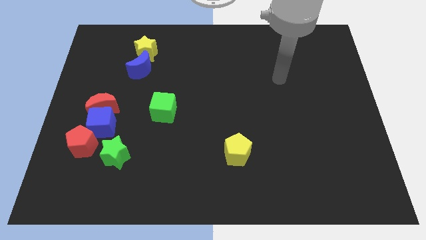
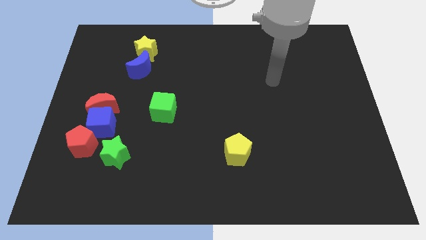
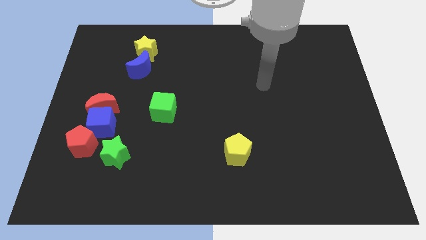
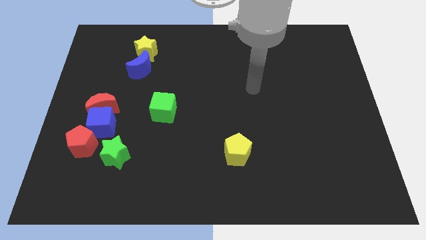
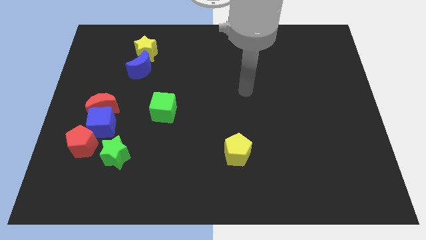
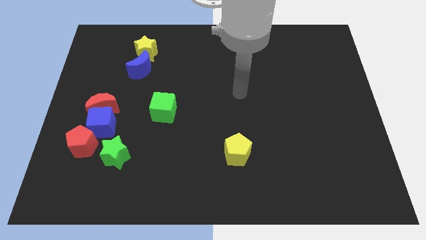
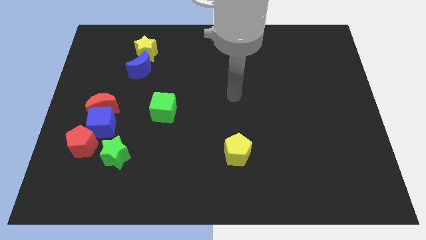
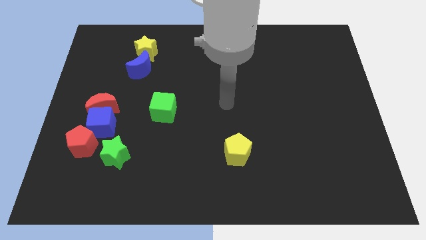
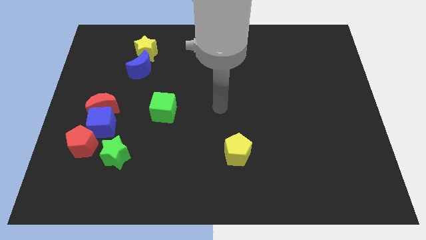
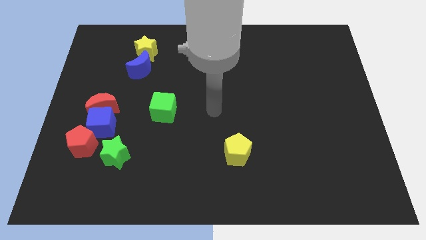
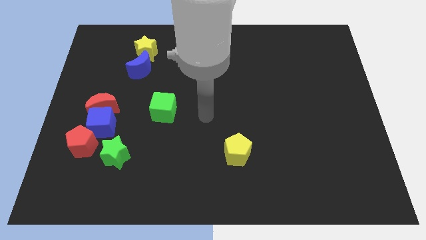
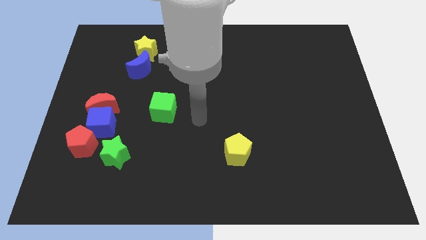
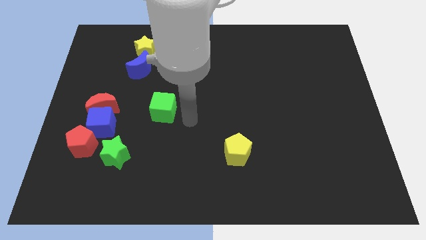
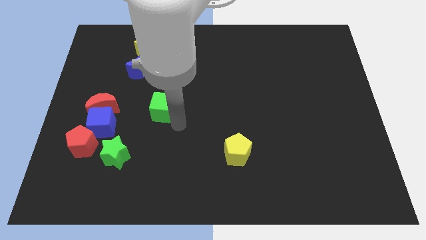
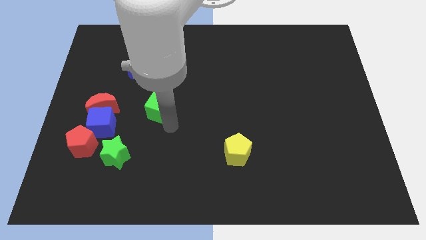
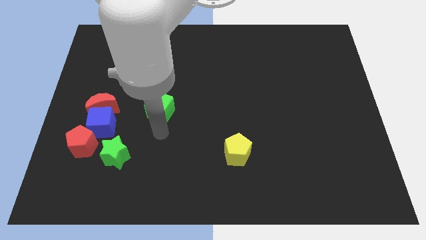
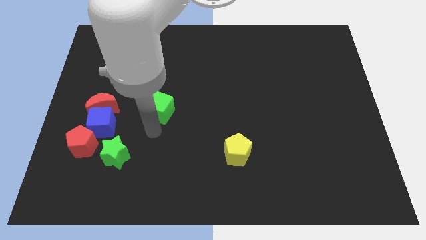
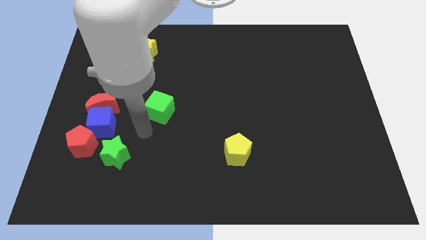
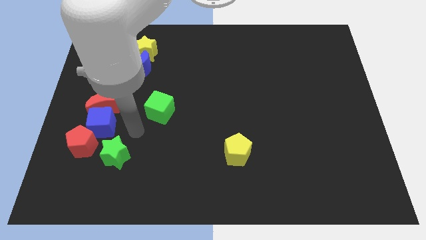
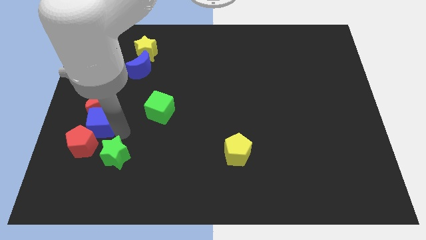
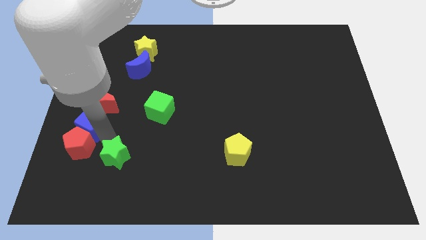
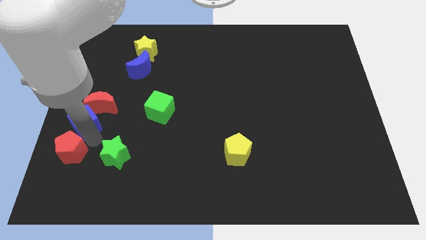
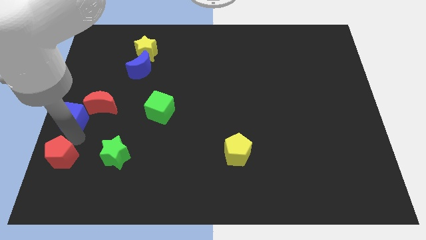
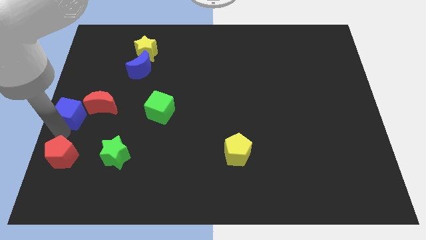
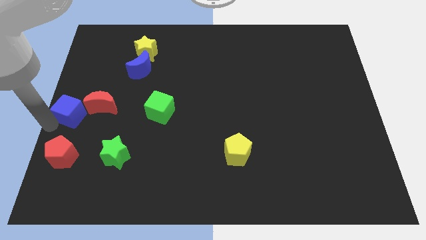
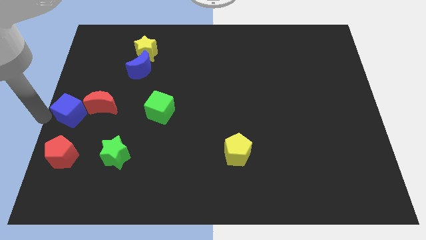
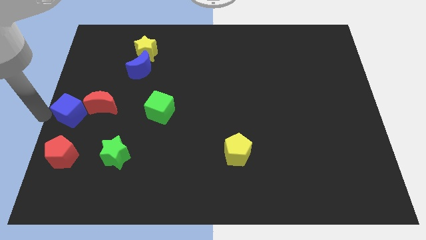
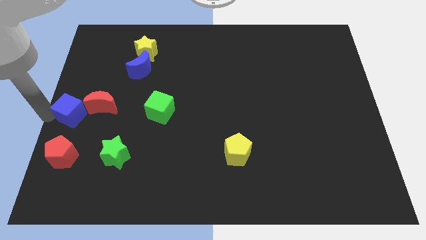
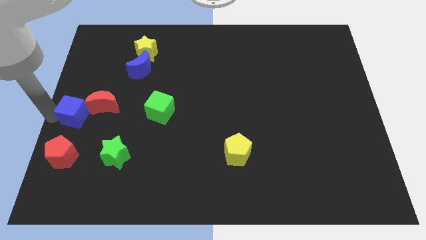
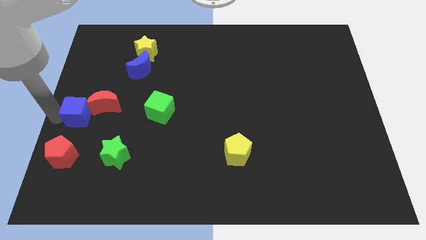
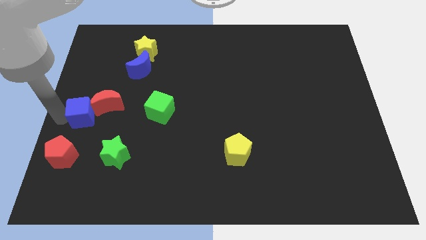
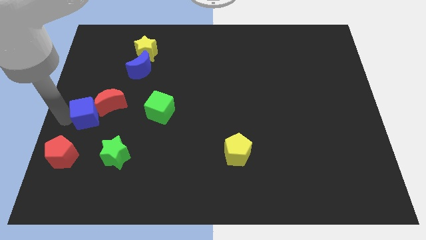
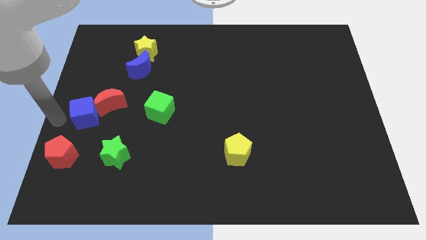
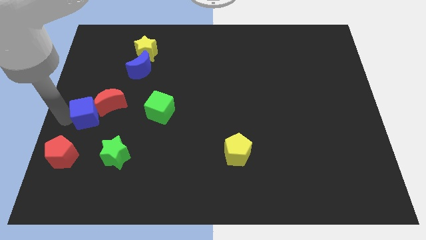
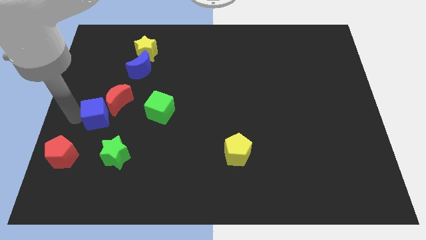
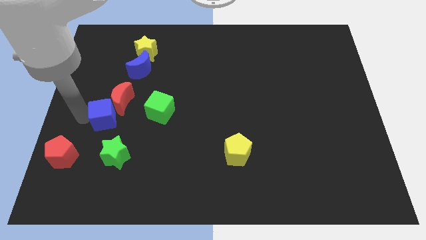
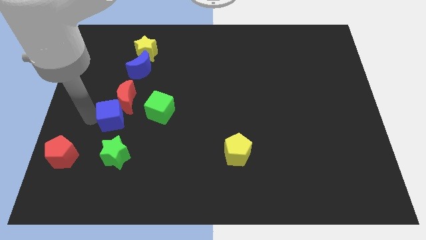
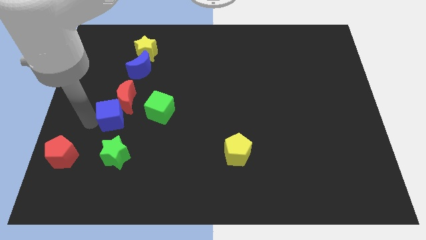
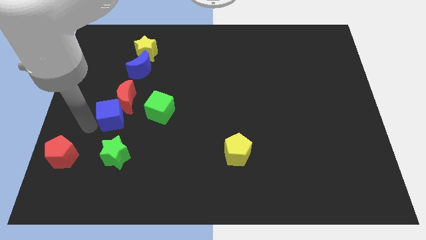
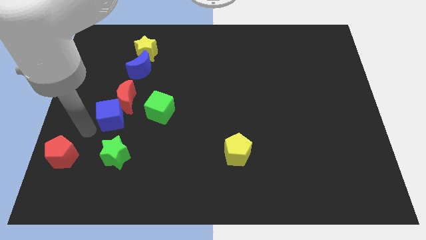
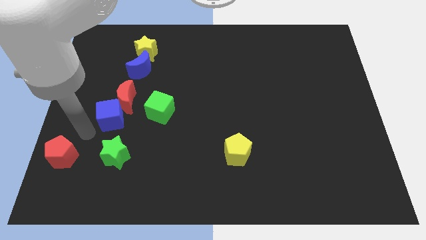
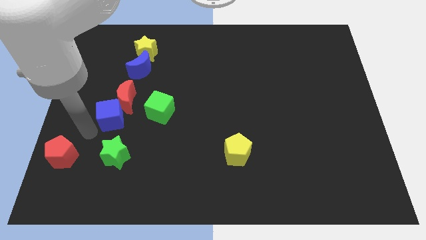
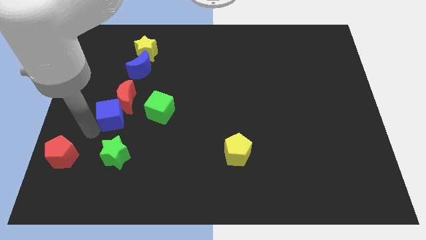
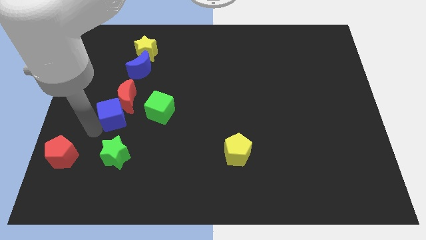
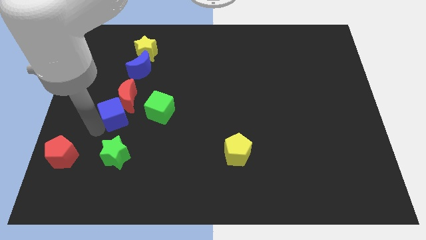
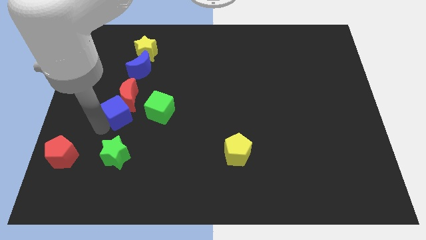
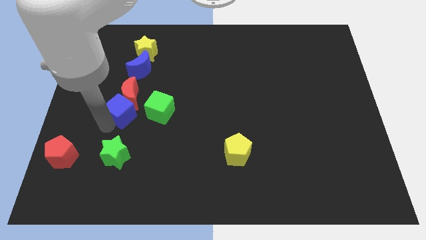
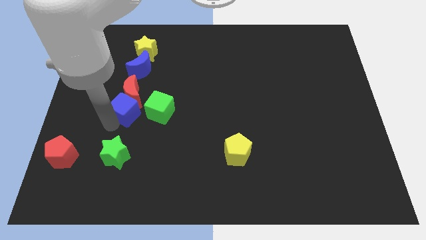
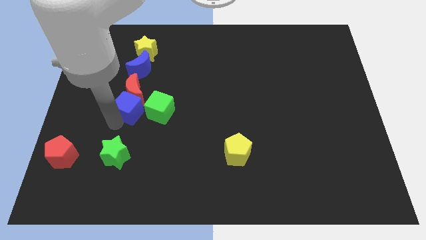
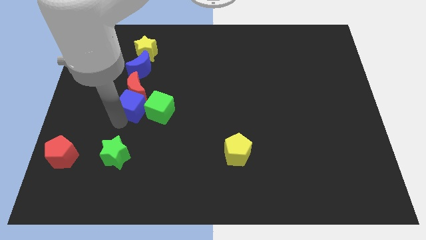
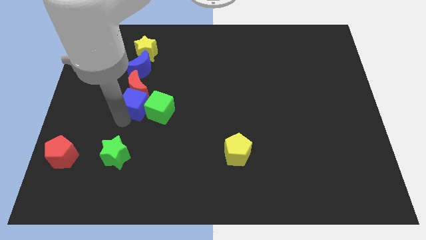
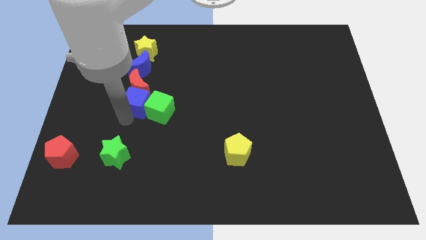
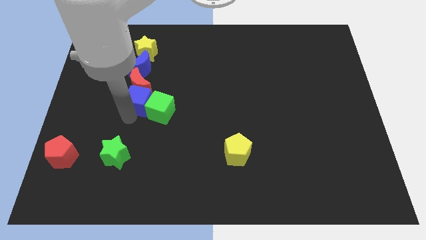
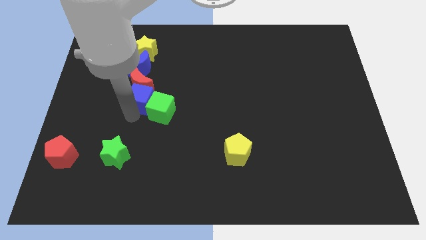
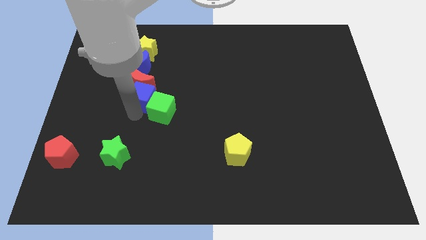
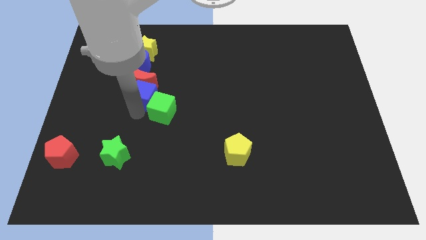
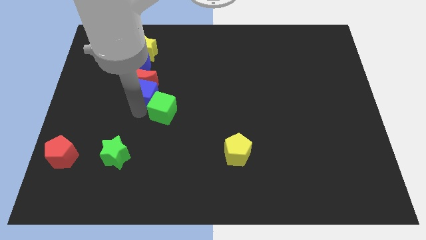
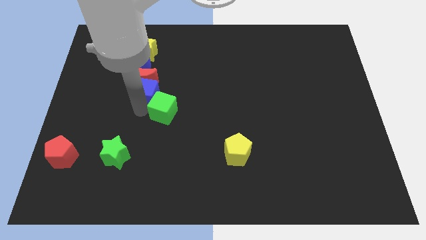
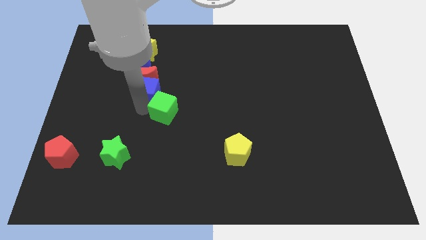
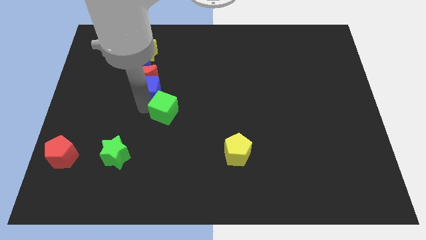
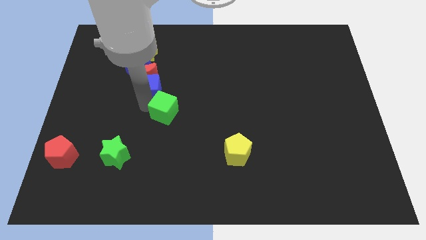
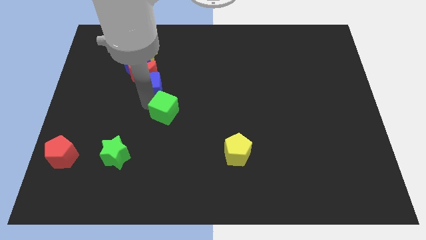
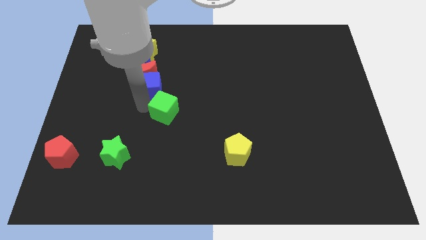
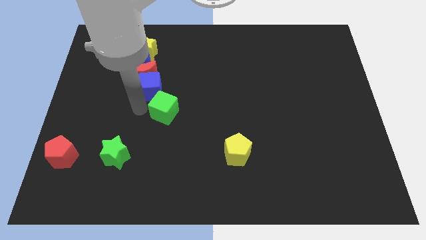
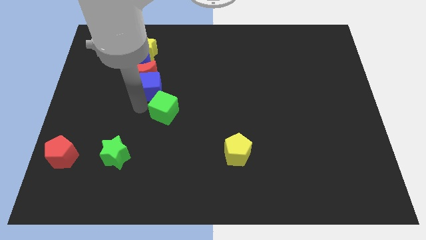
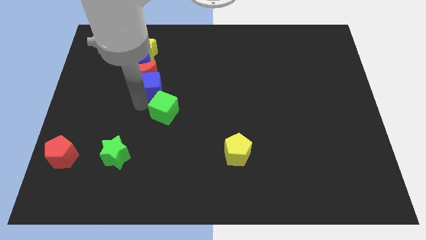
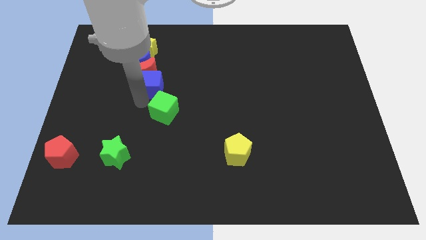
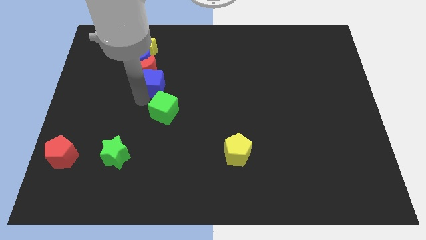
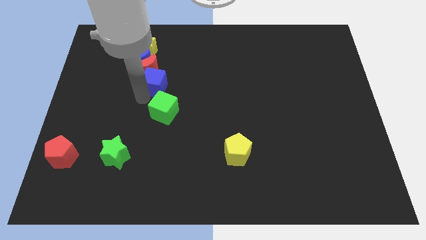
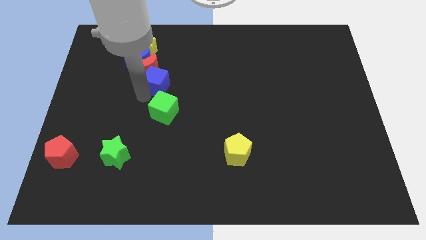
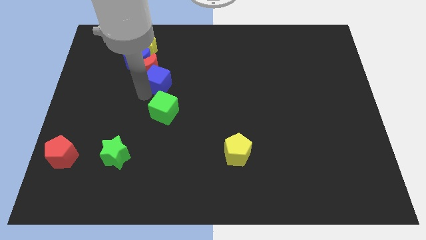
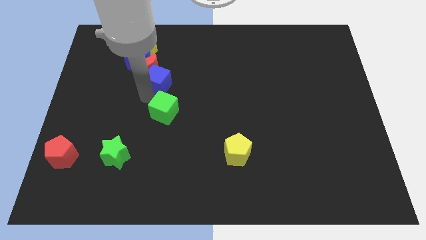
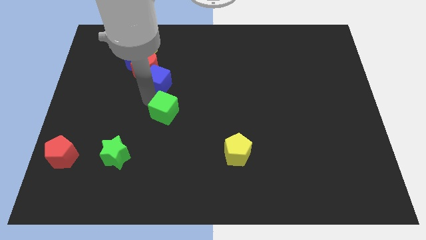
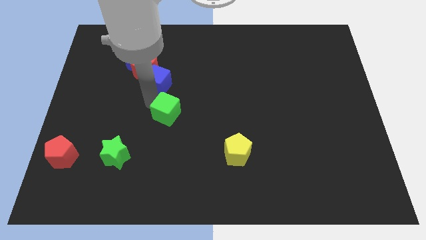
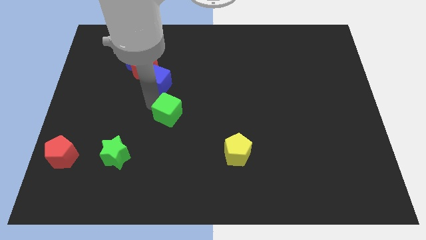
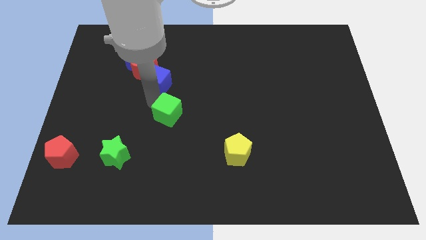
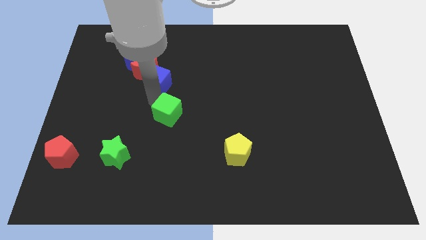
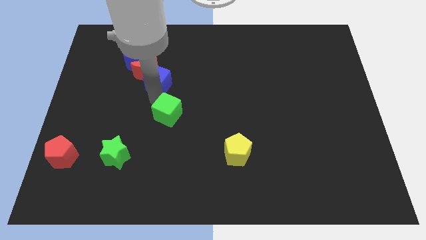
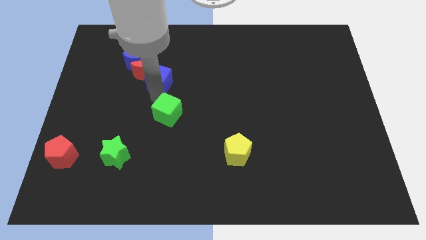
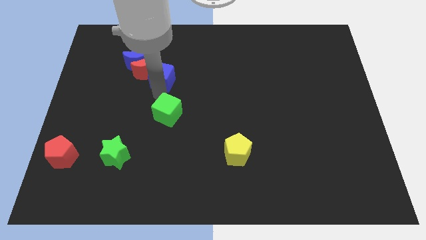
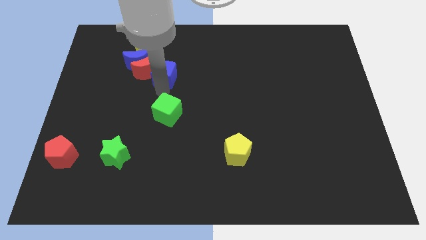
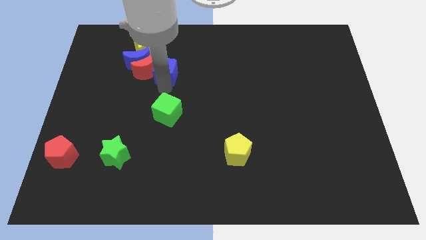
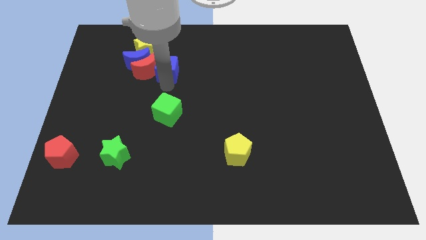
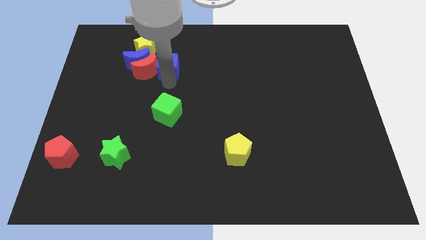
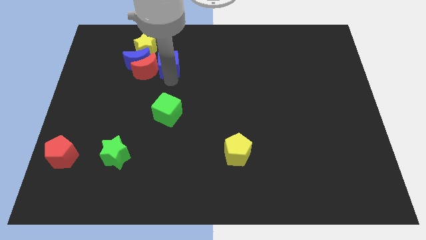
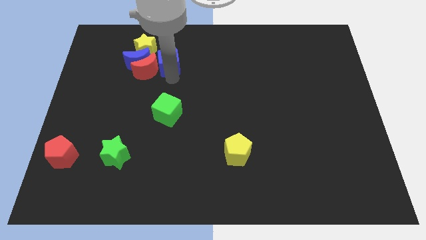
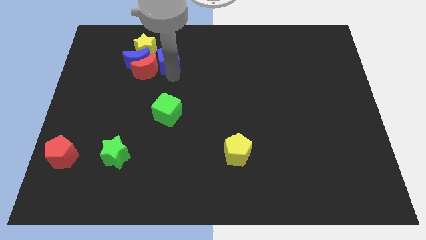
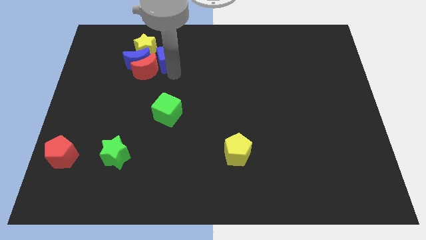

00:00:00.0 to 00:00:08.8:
put the blue cube to the top right side of the blue moon
